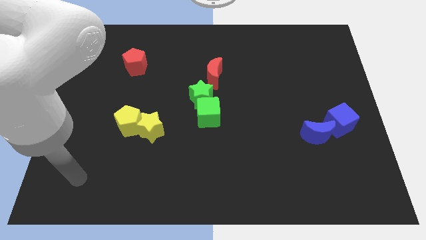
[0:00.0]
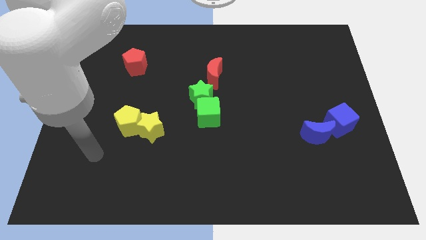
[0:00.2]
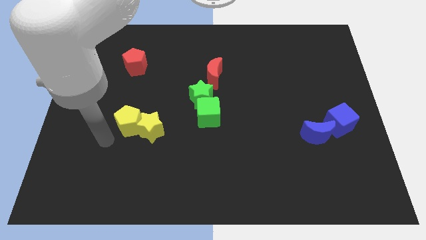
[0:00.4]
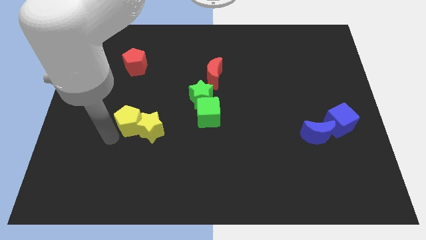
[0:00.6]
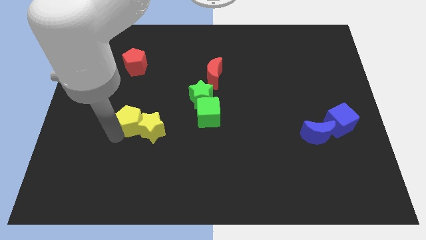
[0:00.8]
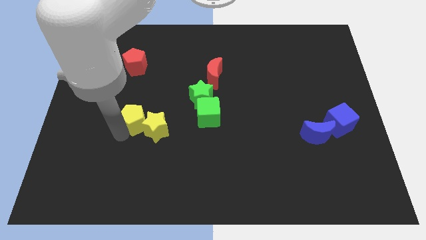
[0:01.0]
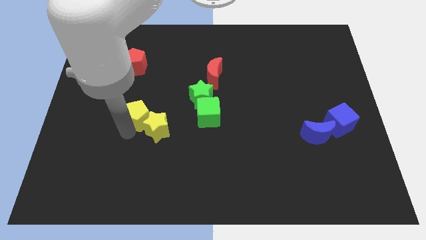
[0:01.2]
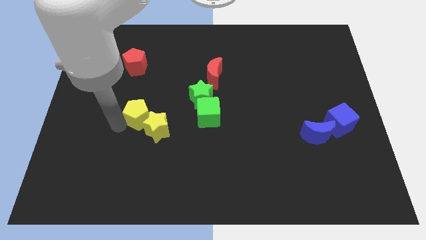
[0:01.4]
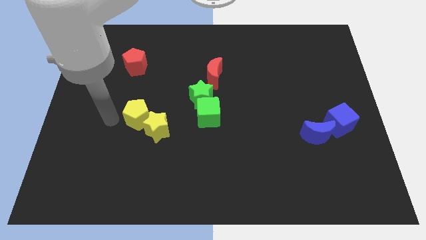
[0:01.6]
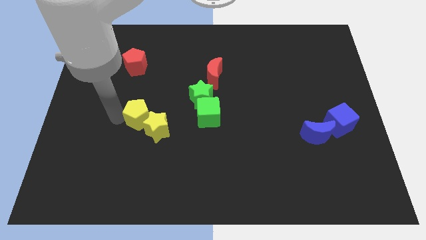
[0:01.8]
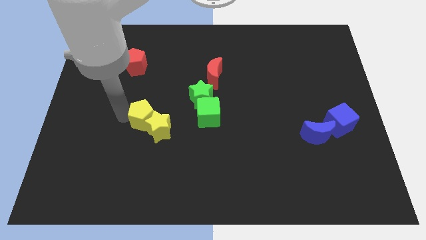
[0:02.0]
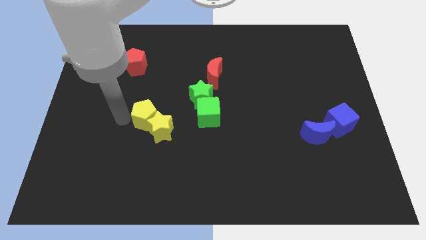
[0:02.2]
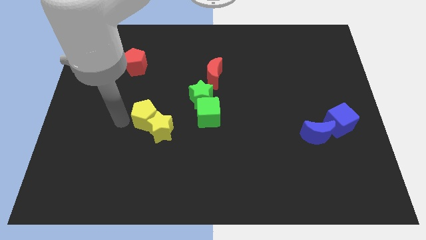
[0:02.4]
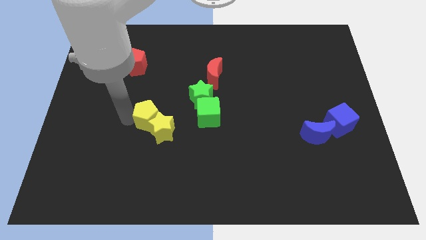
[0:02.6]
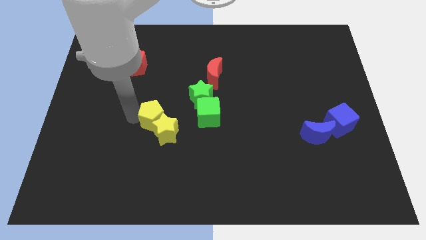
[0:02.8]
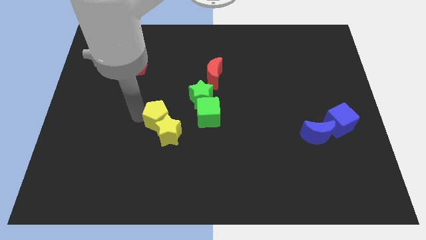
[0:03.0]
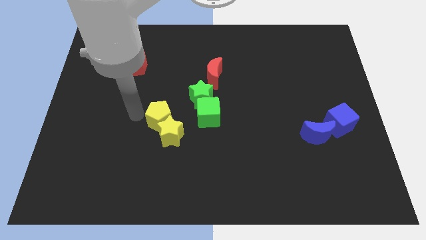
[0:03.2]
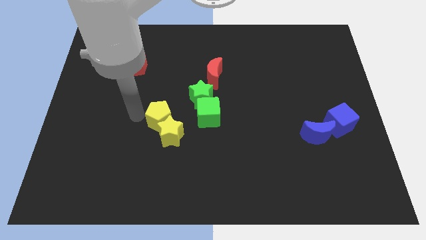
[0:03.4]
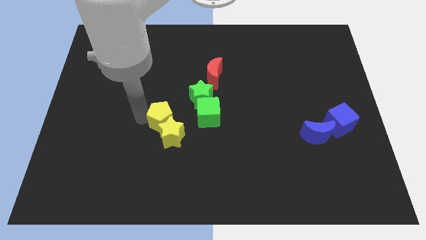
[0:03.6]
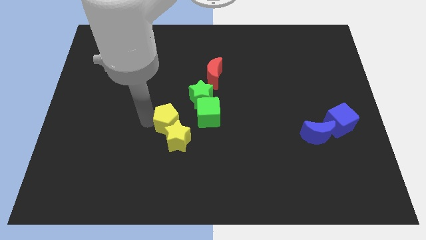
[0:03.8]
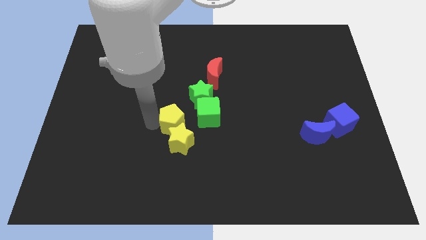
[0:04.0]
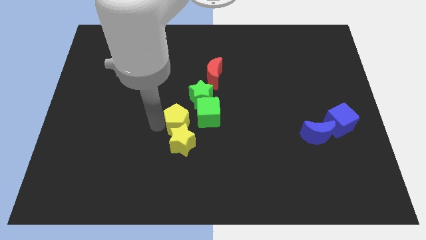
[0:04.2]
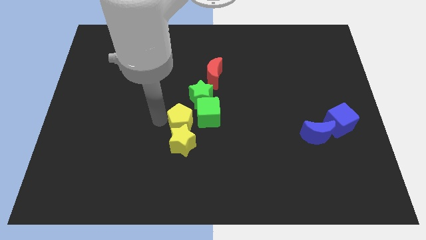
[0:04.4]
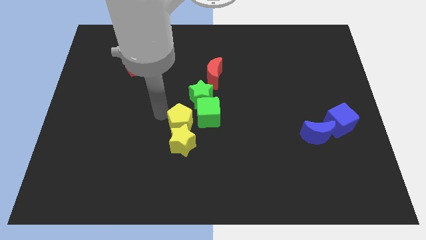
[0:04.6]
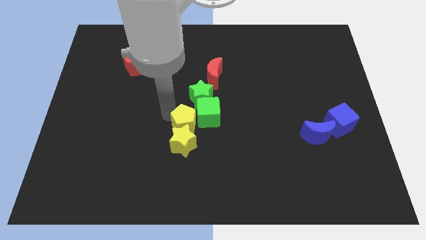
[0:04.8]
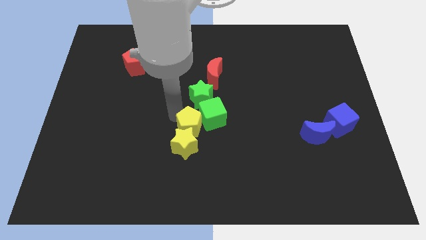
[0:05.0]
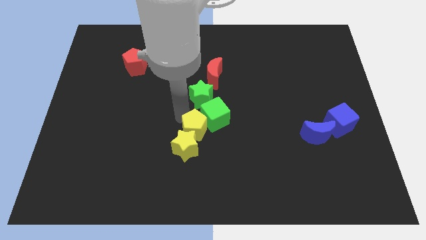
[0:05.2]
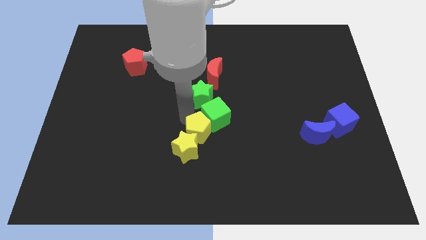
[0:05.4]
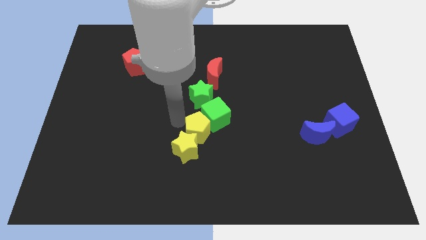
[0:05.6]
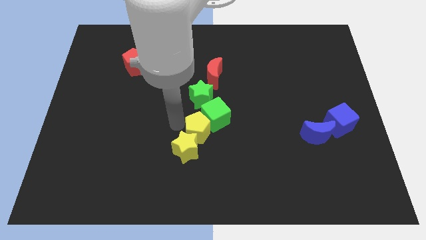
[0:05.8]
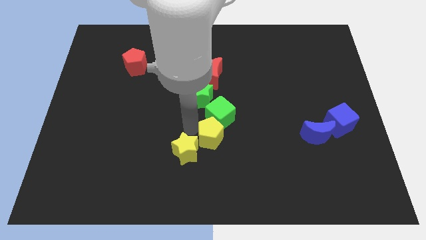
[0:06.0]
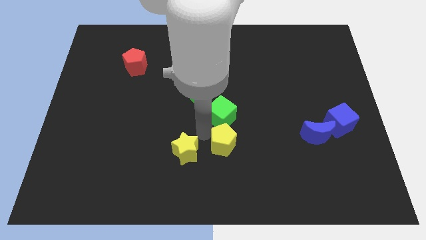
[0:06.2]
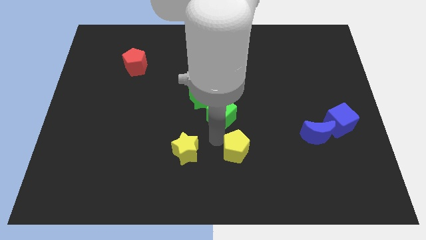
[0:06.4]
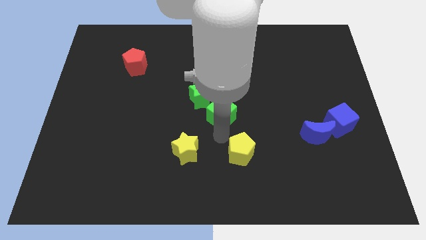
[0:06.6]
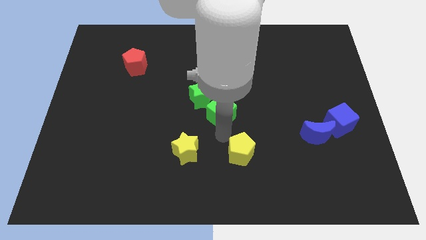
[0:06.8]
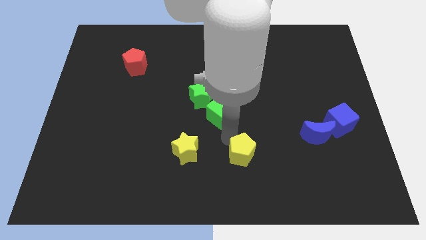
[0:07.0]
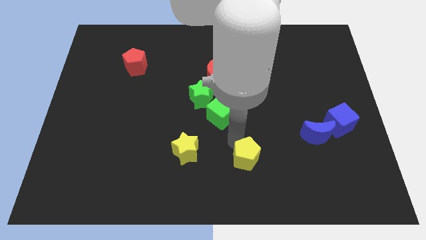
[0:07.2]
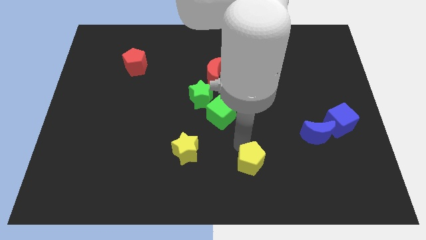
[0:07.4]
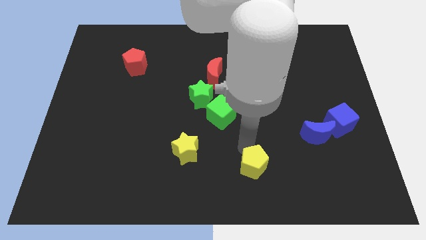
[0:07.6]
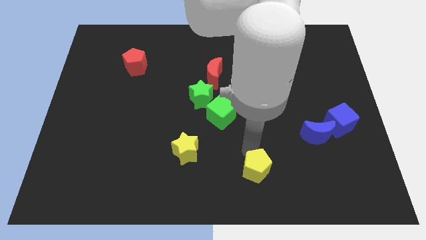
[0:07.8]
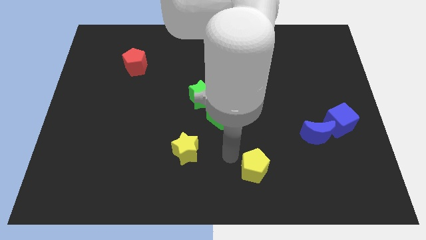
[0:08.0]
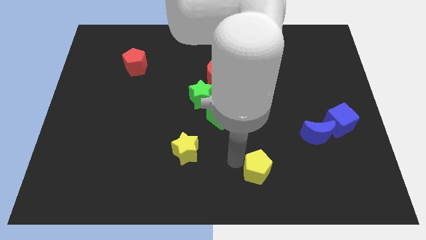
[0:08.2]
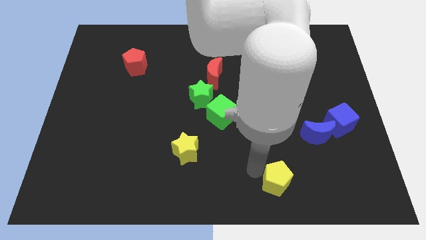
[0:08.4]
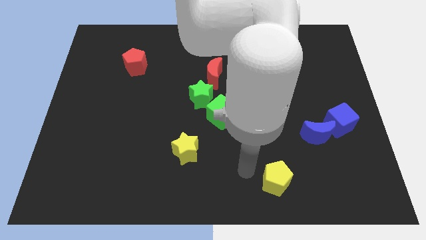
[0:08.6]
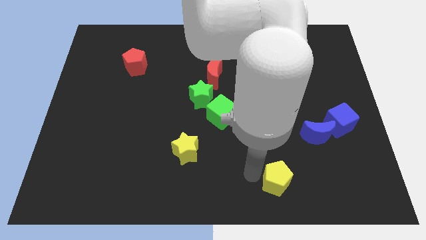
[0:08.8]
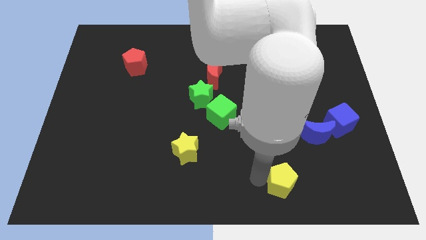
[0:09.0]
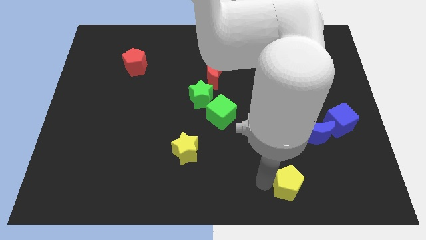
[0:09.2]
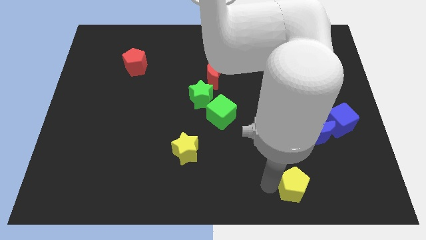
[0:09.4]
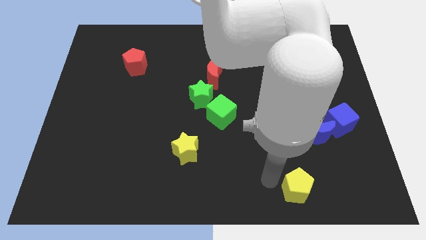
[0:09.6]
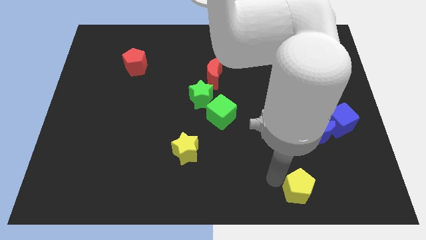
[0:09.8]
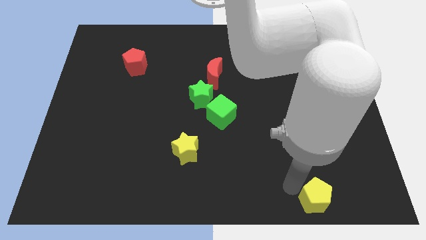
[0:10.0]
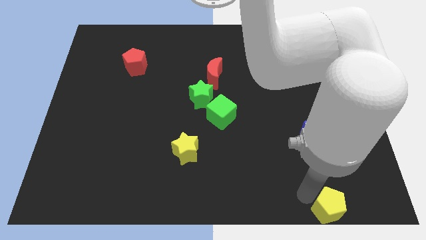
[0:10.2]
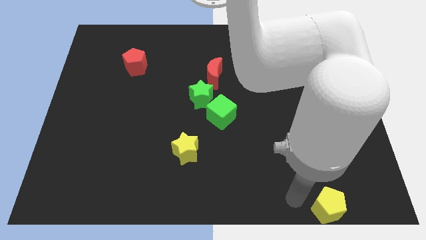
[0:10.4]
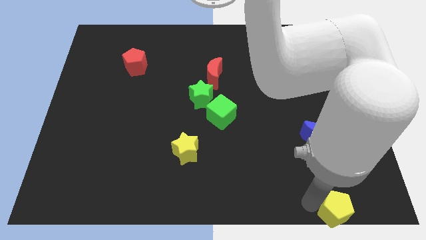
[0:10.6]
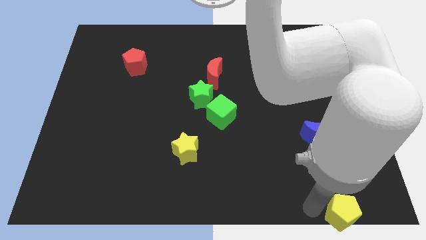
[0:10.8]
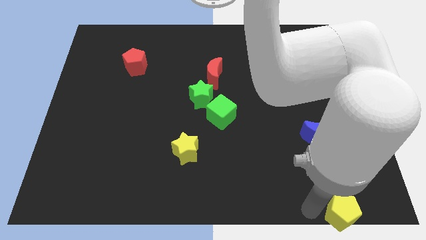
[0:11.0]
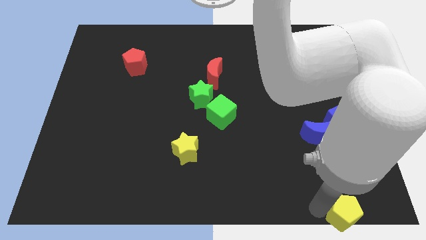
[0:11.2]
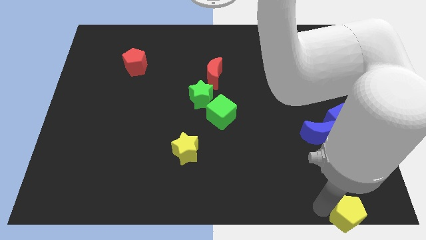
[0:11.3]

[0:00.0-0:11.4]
push the yellow pentagon to the bottom right

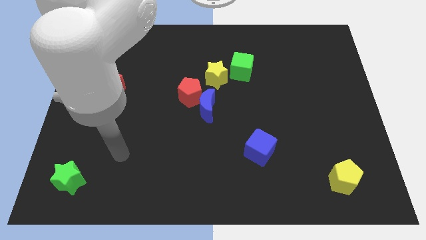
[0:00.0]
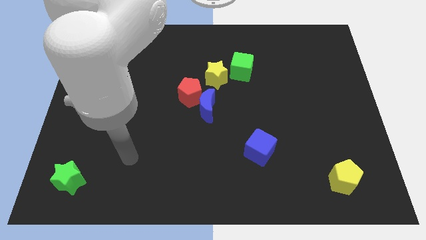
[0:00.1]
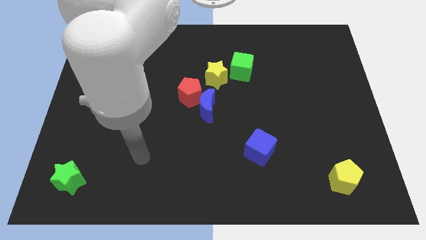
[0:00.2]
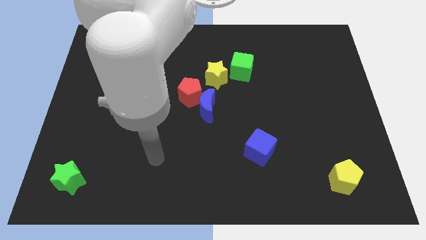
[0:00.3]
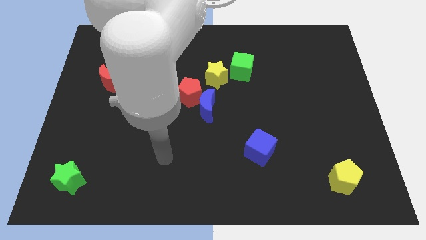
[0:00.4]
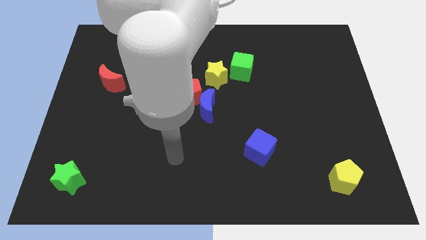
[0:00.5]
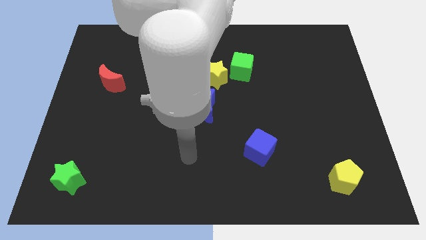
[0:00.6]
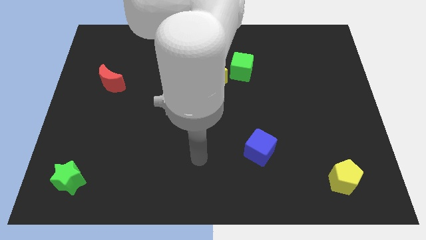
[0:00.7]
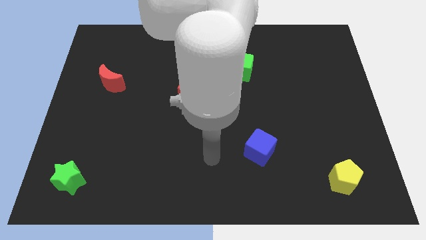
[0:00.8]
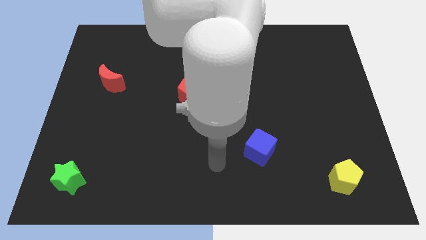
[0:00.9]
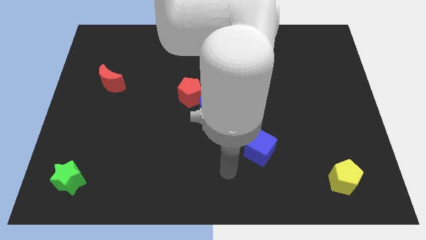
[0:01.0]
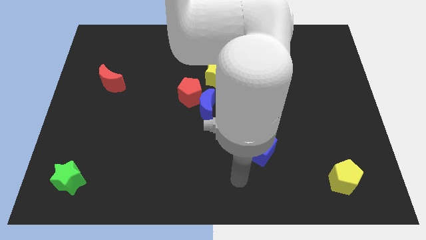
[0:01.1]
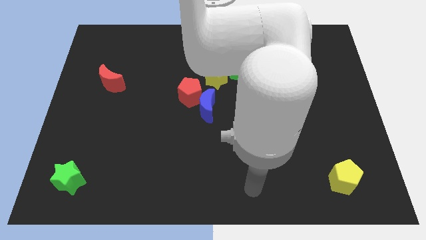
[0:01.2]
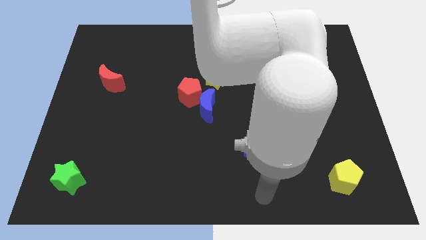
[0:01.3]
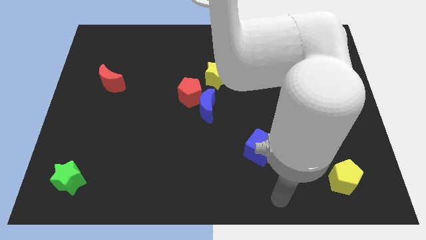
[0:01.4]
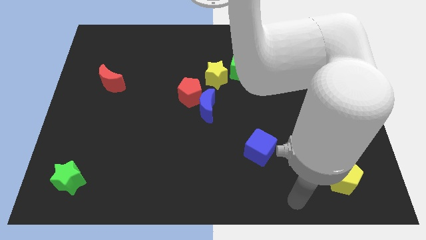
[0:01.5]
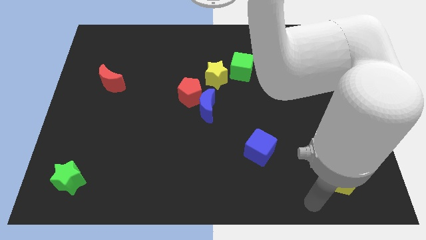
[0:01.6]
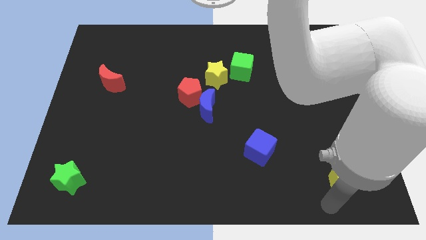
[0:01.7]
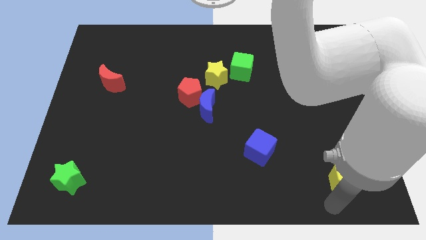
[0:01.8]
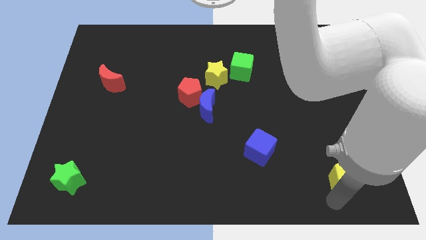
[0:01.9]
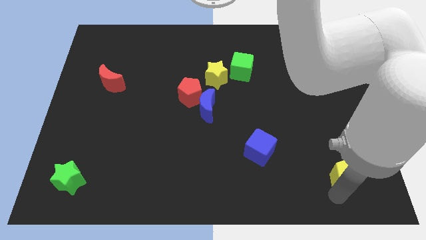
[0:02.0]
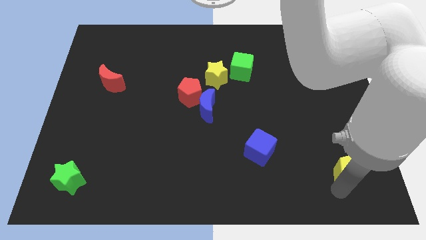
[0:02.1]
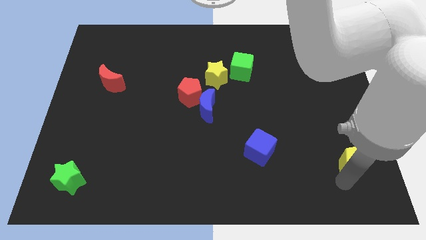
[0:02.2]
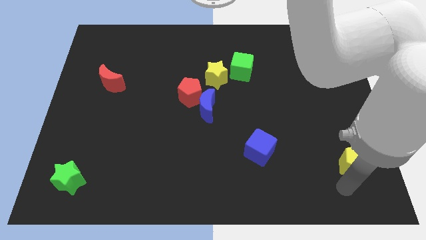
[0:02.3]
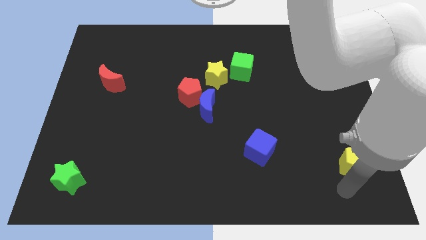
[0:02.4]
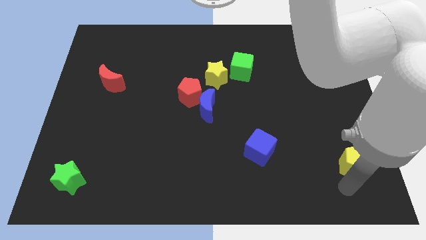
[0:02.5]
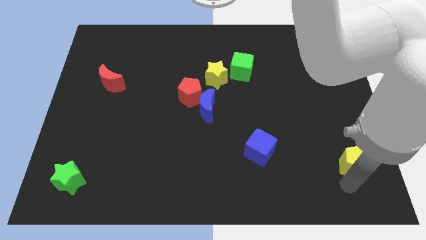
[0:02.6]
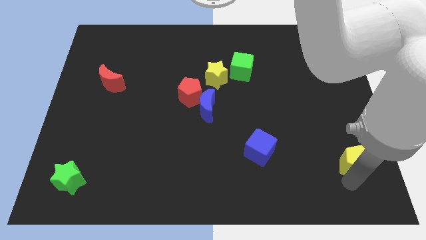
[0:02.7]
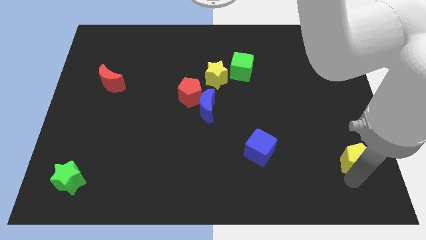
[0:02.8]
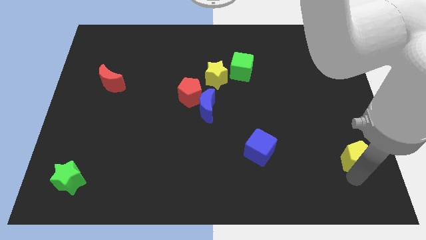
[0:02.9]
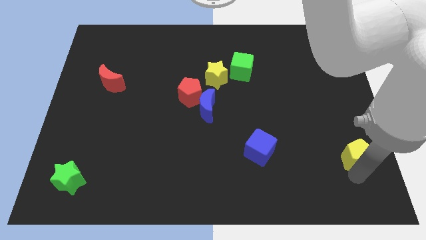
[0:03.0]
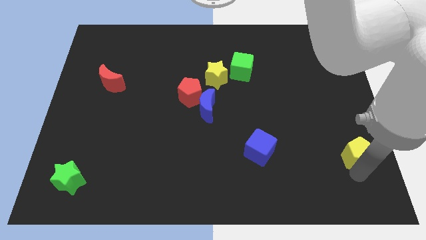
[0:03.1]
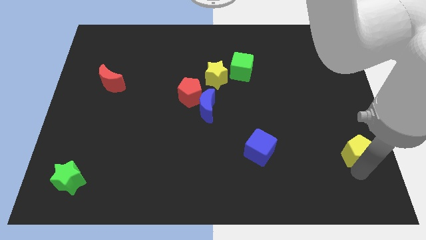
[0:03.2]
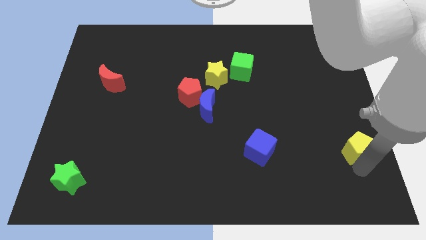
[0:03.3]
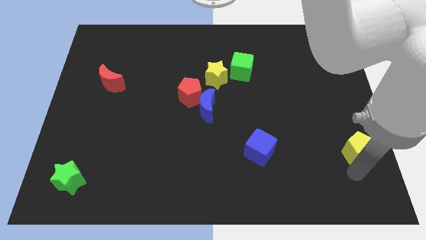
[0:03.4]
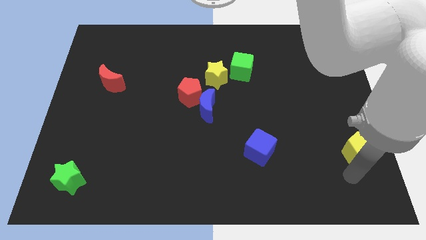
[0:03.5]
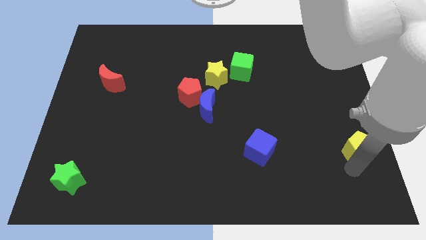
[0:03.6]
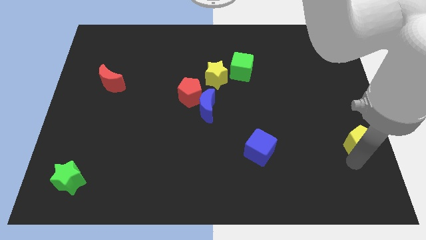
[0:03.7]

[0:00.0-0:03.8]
push the yellow pentagon to the right side of the board
